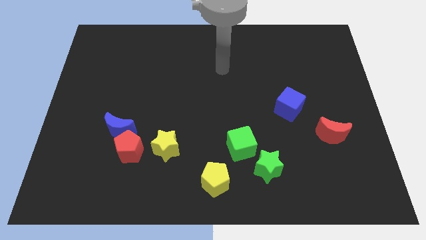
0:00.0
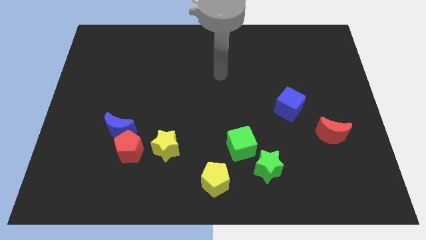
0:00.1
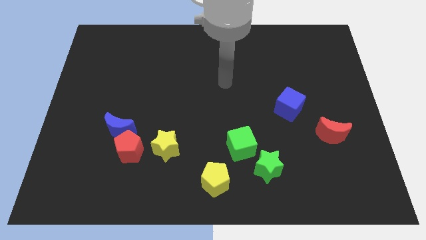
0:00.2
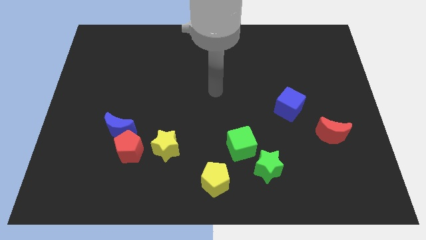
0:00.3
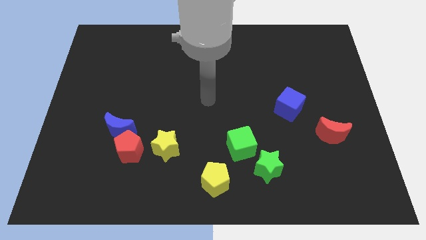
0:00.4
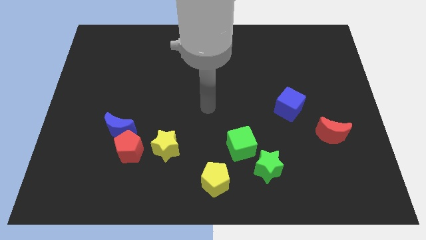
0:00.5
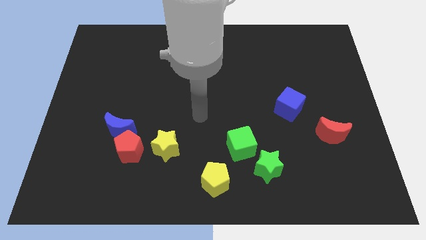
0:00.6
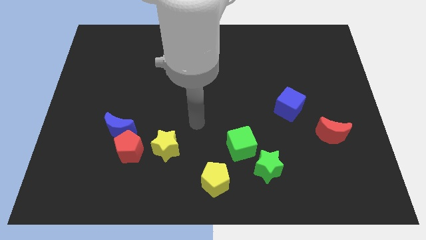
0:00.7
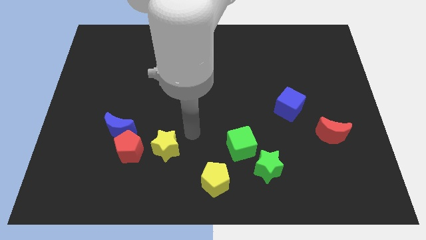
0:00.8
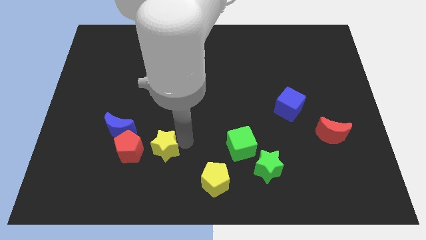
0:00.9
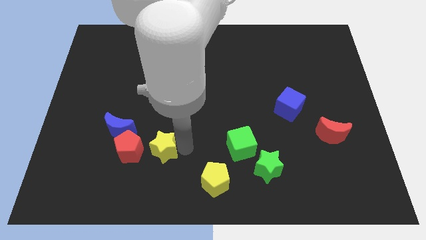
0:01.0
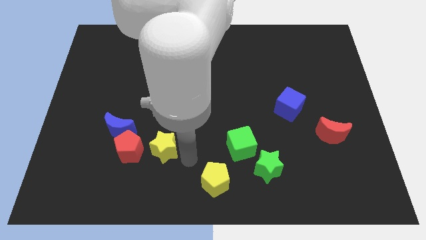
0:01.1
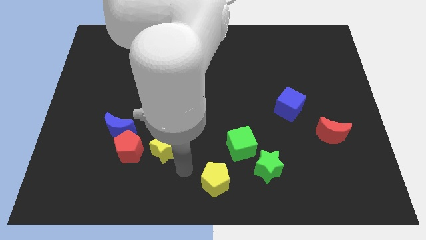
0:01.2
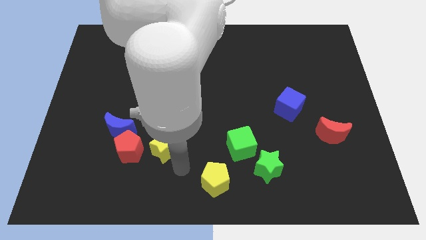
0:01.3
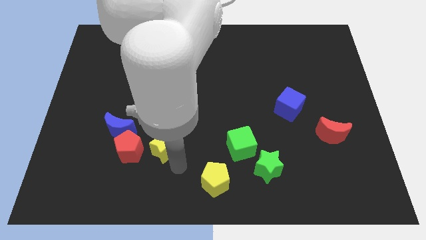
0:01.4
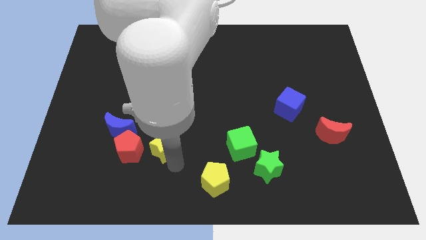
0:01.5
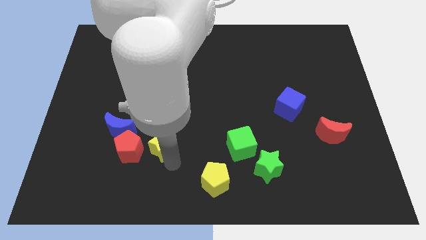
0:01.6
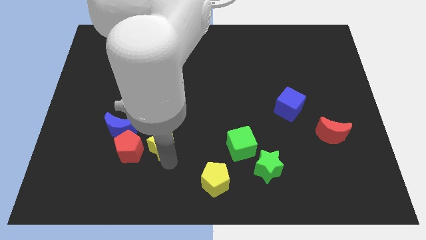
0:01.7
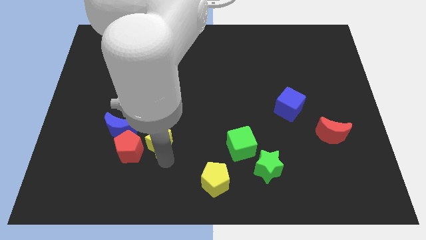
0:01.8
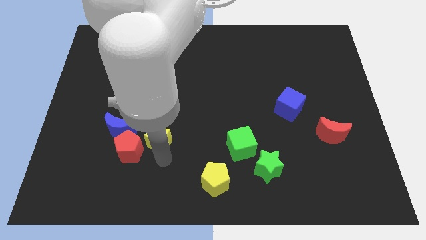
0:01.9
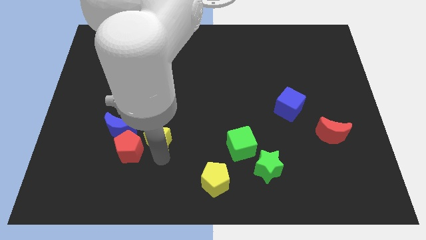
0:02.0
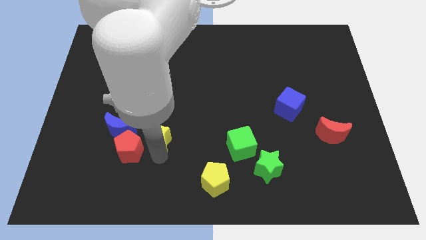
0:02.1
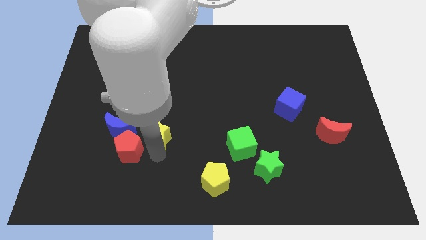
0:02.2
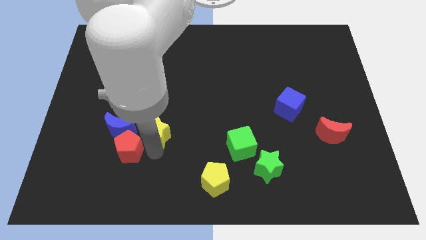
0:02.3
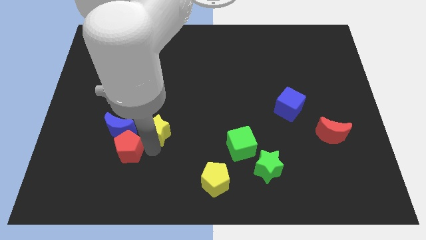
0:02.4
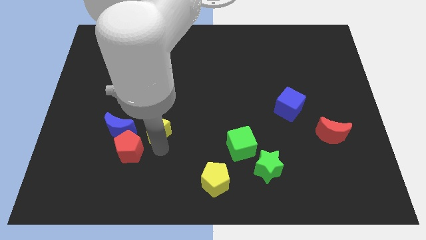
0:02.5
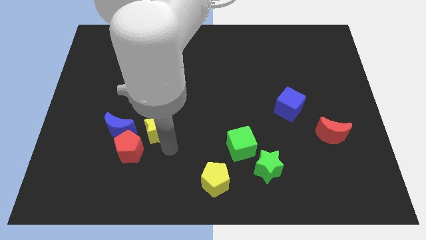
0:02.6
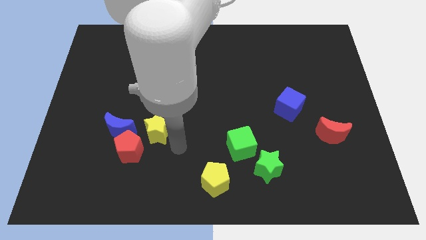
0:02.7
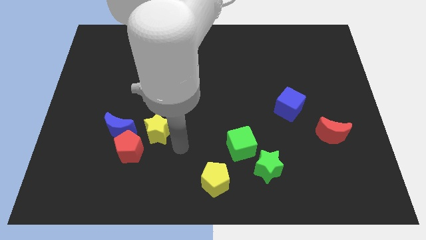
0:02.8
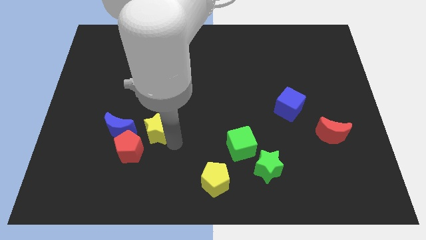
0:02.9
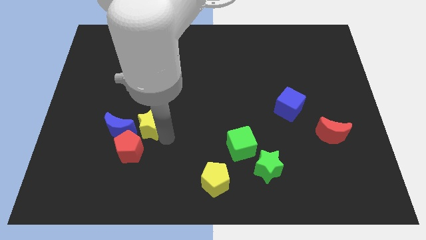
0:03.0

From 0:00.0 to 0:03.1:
slightly move the yellow star diagonally up and left

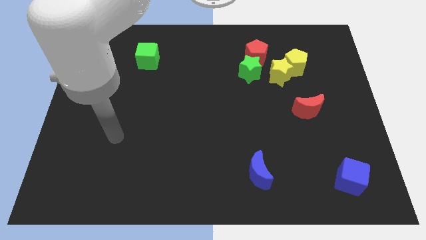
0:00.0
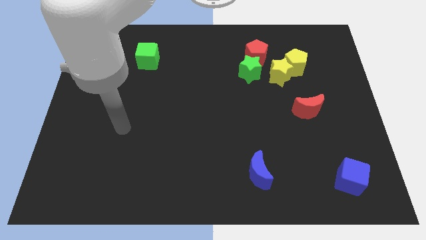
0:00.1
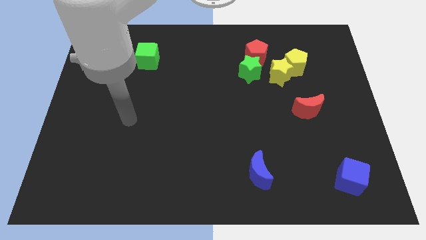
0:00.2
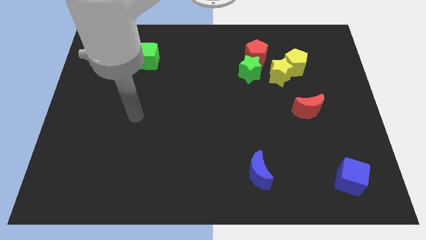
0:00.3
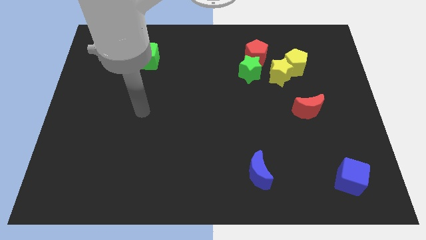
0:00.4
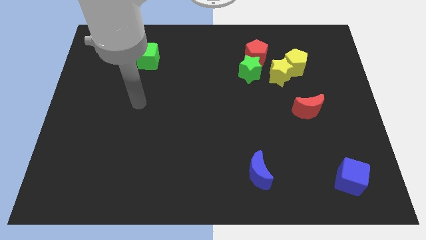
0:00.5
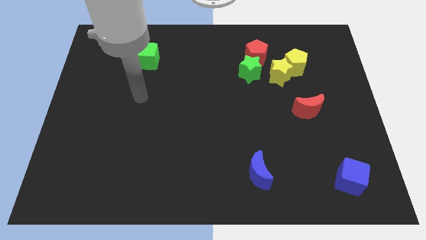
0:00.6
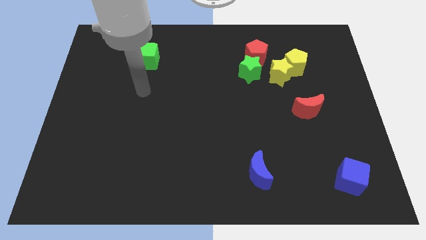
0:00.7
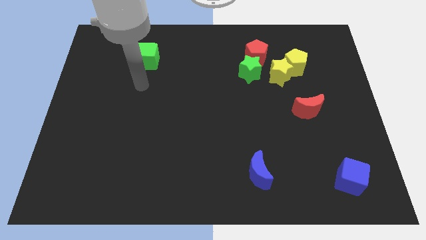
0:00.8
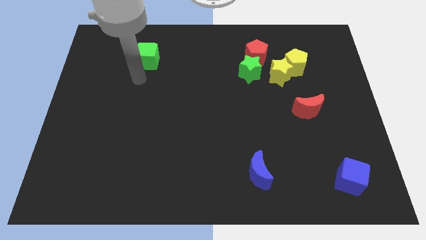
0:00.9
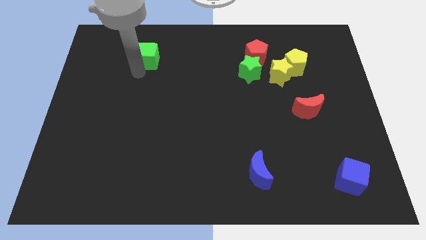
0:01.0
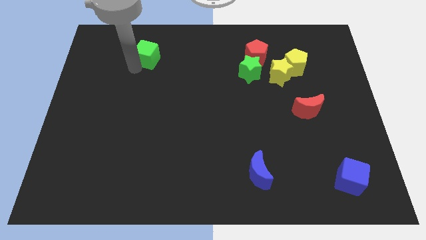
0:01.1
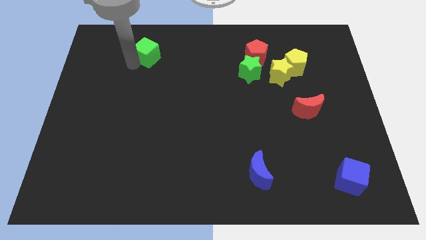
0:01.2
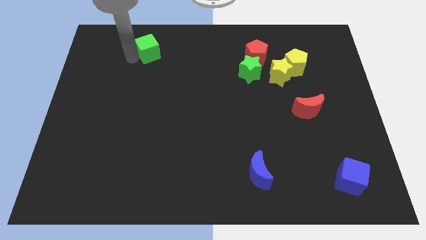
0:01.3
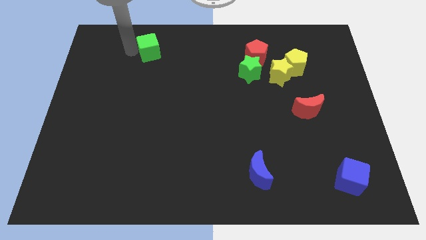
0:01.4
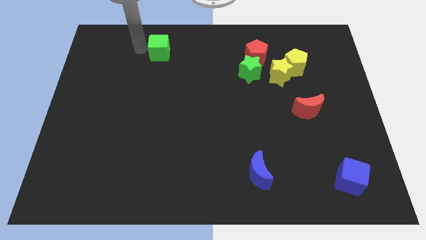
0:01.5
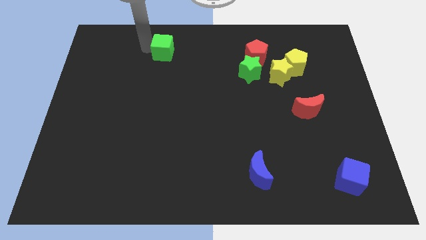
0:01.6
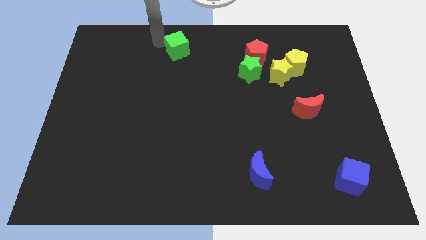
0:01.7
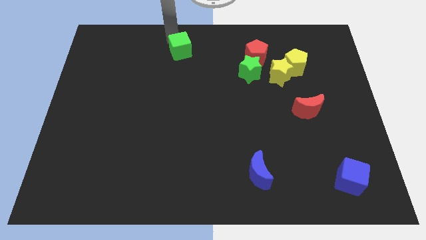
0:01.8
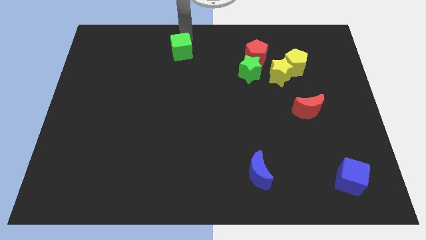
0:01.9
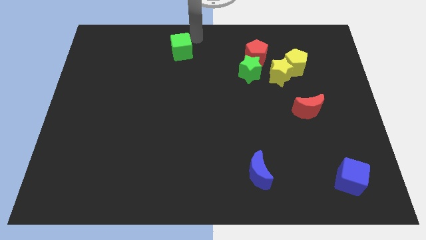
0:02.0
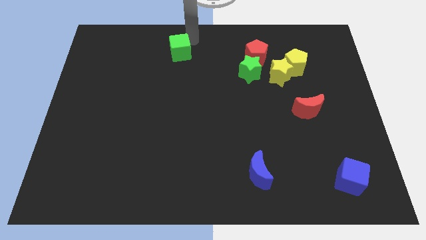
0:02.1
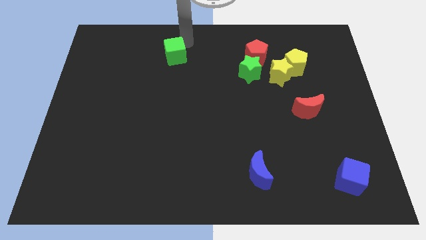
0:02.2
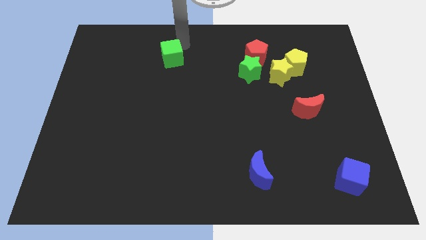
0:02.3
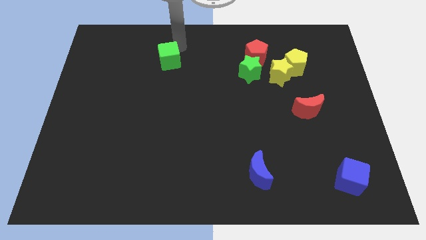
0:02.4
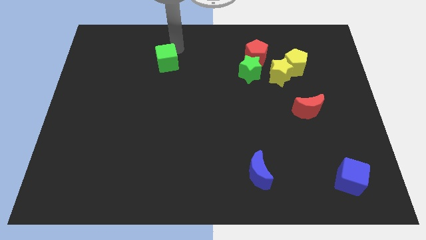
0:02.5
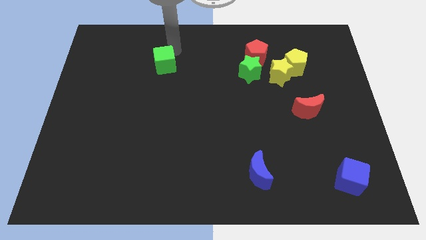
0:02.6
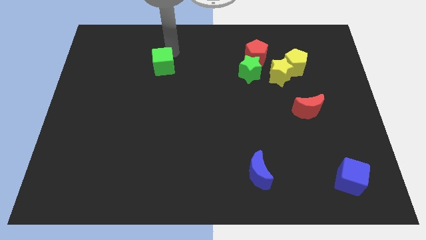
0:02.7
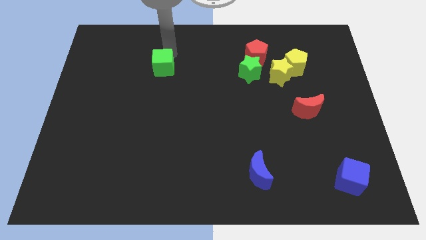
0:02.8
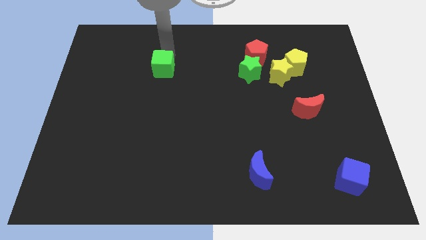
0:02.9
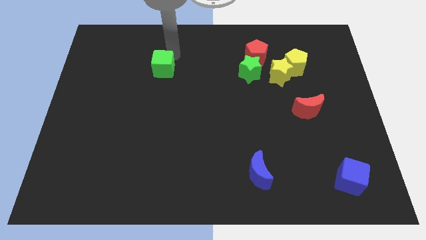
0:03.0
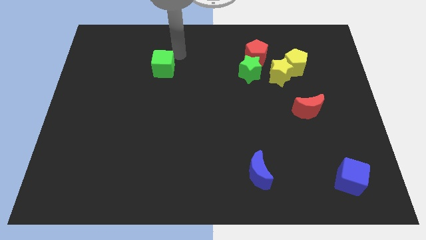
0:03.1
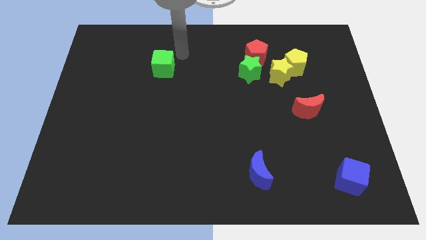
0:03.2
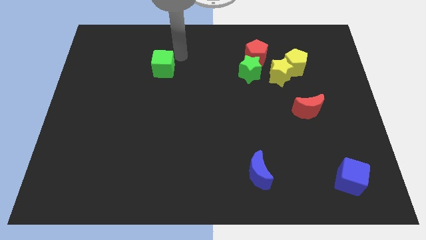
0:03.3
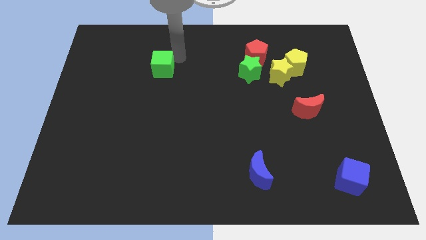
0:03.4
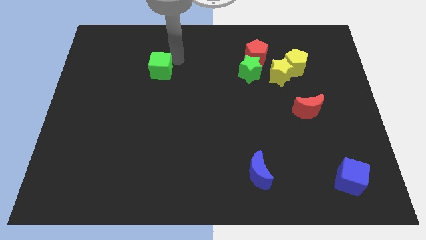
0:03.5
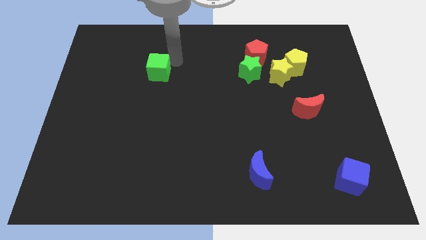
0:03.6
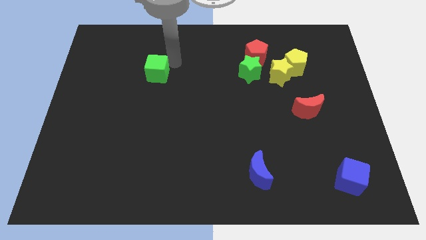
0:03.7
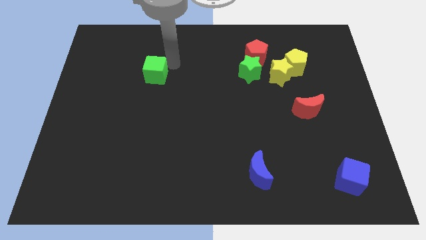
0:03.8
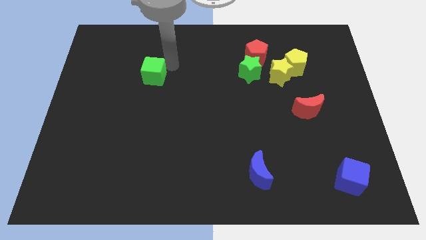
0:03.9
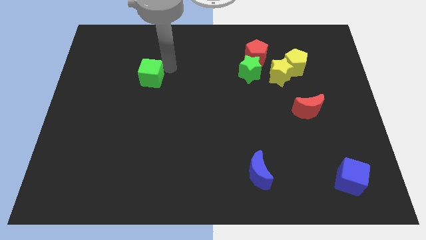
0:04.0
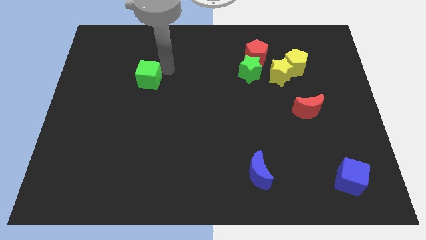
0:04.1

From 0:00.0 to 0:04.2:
slightly slide the green cube downwards

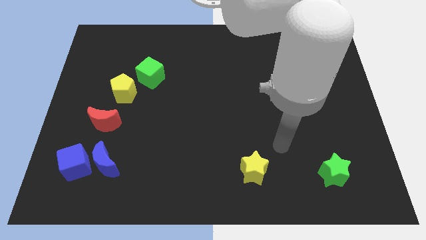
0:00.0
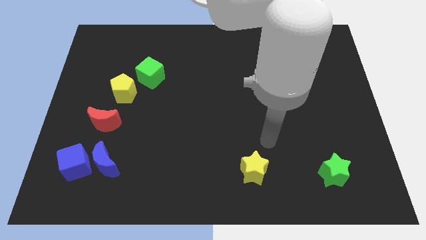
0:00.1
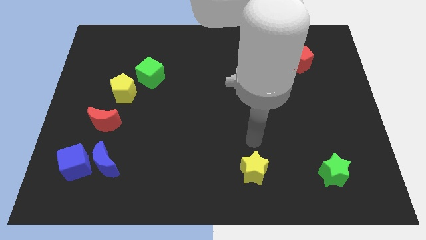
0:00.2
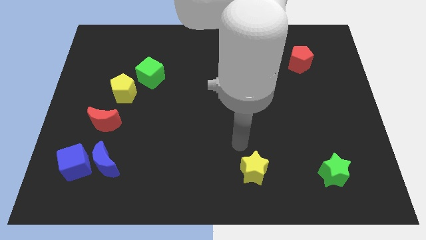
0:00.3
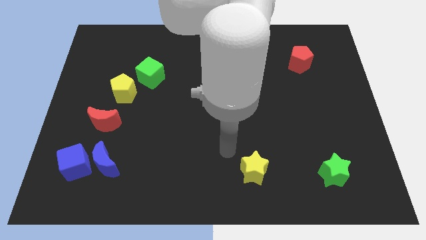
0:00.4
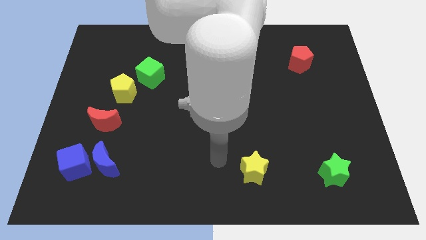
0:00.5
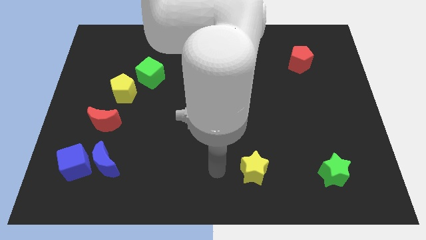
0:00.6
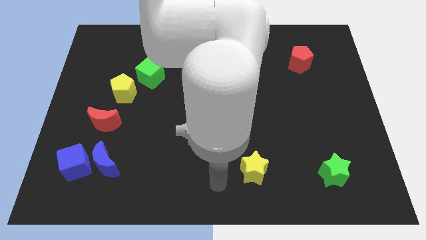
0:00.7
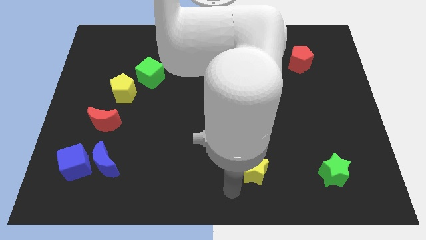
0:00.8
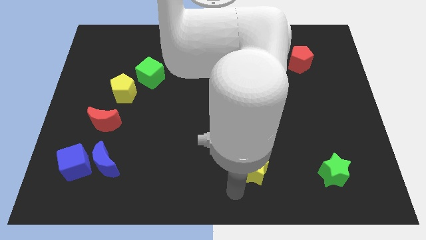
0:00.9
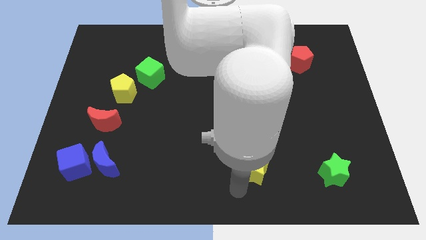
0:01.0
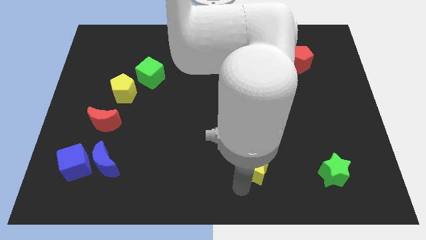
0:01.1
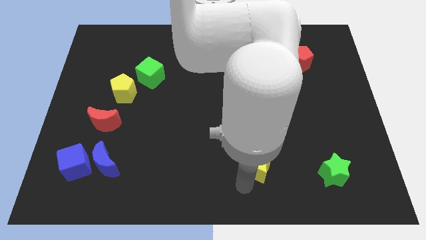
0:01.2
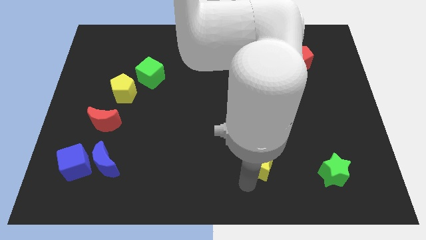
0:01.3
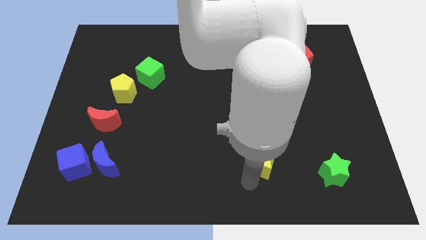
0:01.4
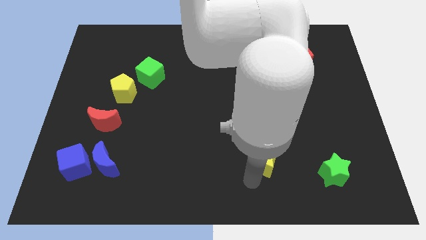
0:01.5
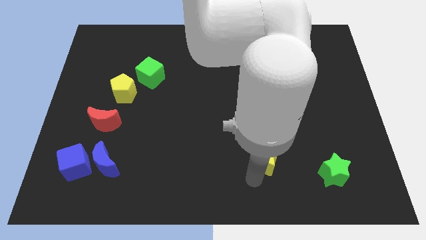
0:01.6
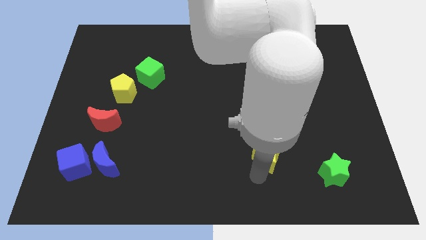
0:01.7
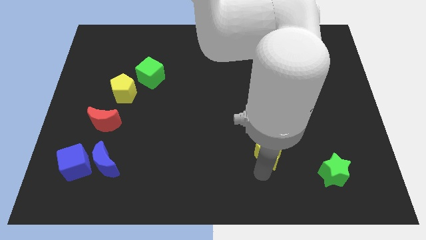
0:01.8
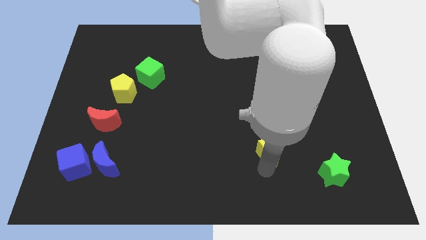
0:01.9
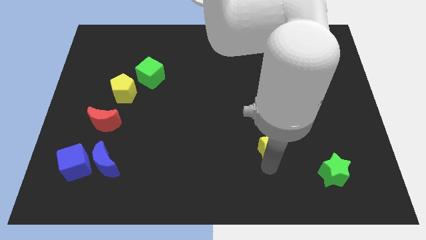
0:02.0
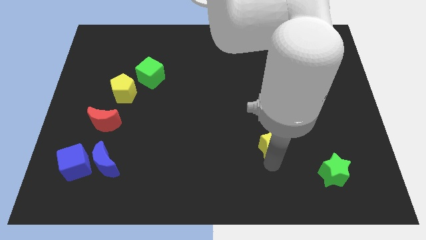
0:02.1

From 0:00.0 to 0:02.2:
slightly move the yellow star up and then to the right
